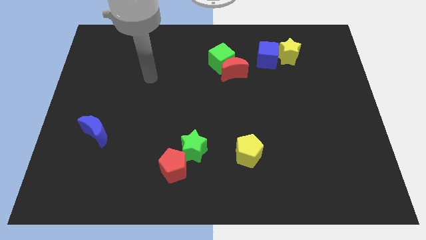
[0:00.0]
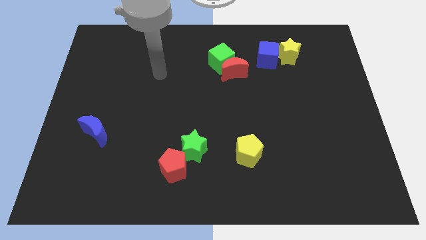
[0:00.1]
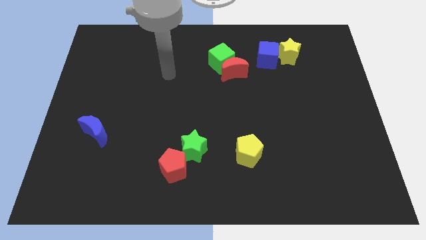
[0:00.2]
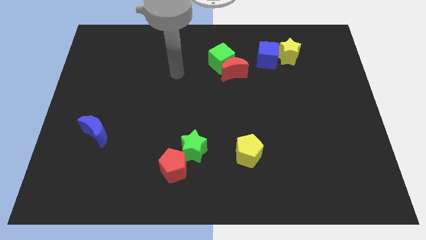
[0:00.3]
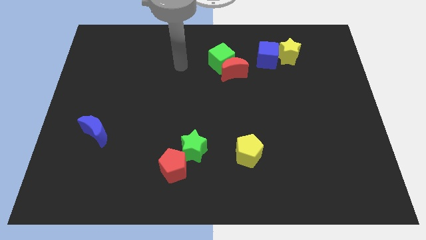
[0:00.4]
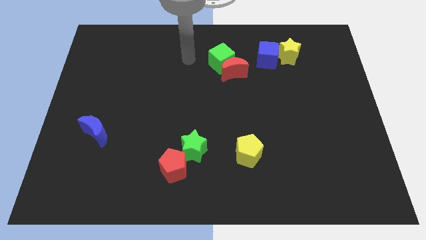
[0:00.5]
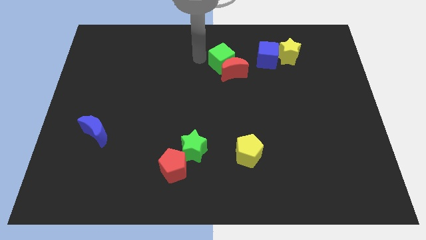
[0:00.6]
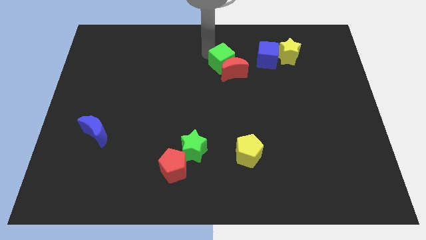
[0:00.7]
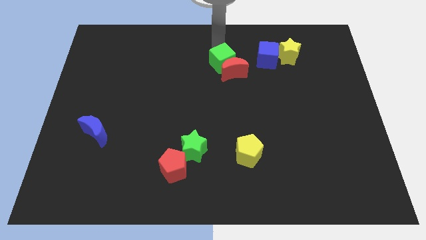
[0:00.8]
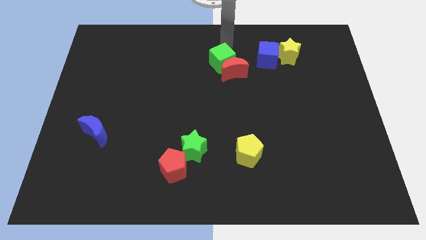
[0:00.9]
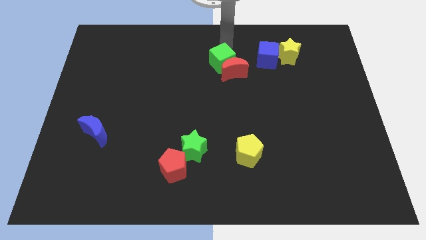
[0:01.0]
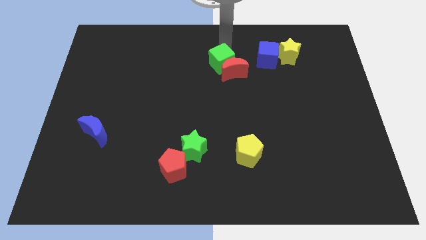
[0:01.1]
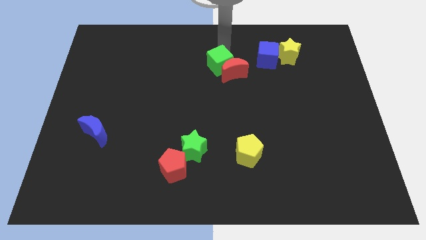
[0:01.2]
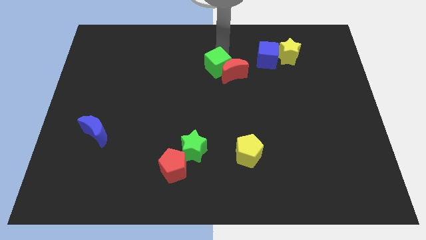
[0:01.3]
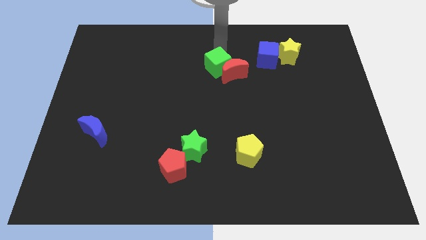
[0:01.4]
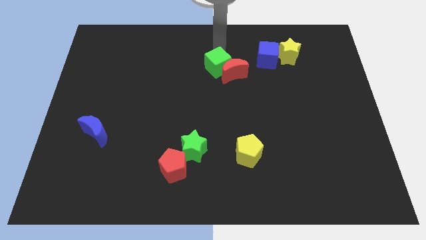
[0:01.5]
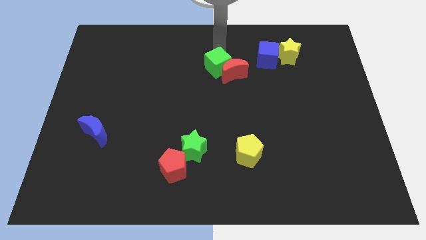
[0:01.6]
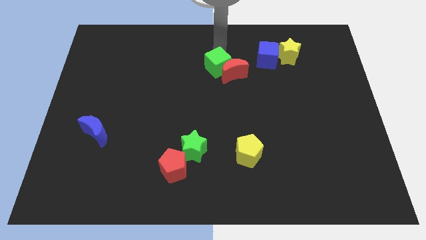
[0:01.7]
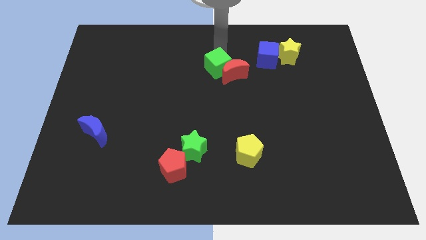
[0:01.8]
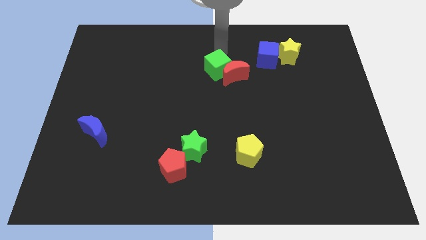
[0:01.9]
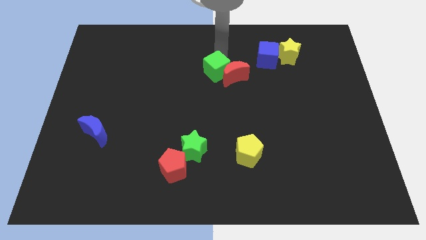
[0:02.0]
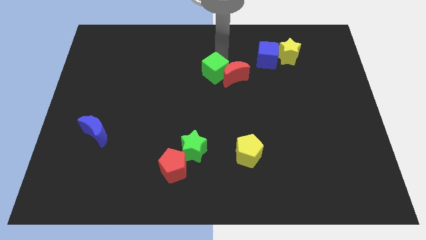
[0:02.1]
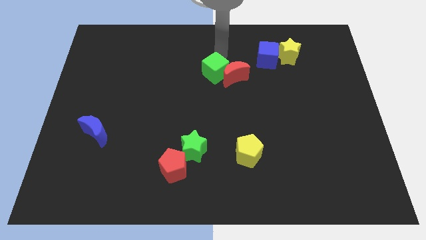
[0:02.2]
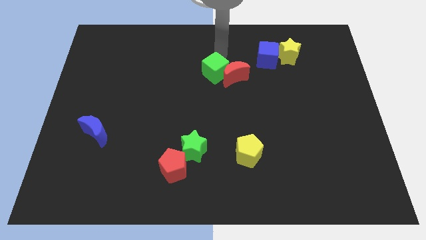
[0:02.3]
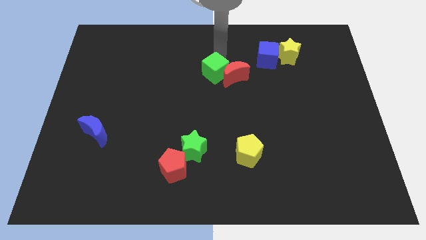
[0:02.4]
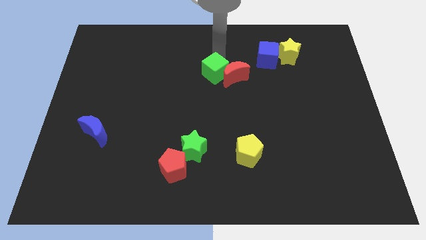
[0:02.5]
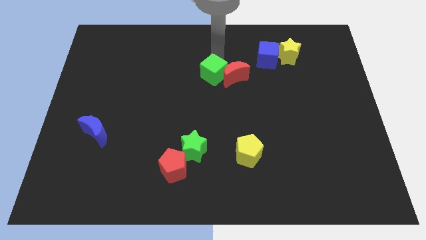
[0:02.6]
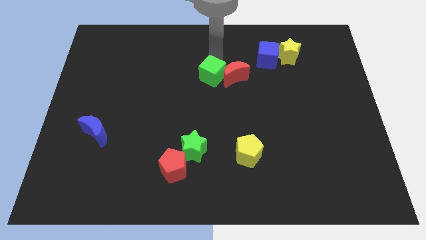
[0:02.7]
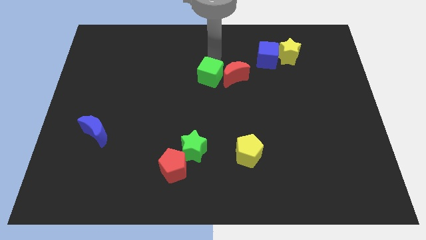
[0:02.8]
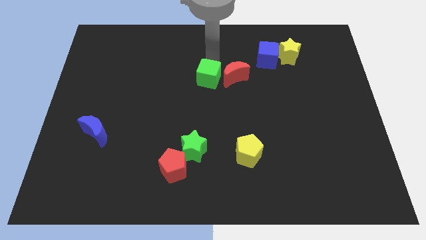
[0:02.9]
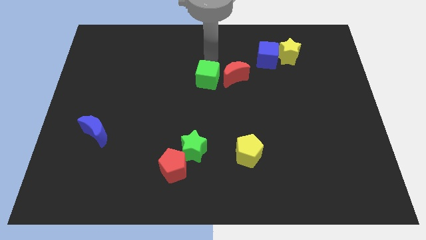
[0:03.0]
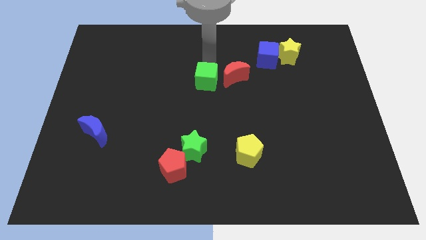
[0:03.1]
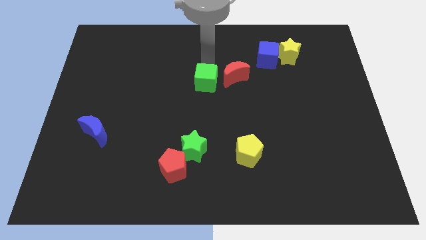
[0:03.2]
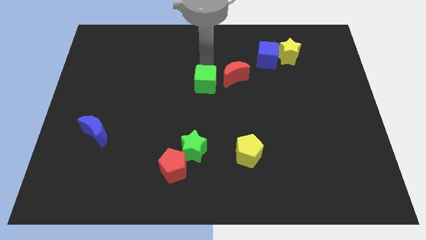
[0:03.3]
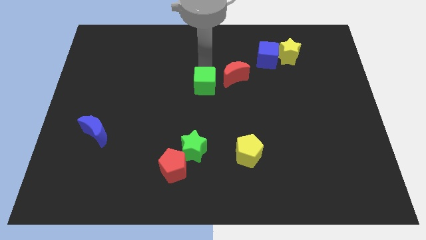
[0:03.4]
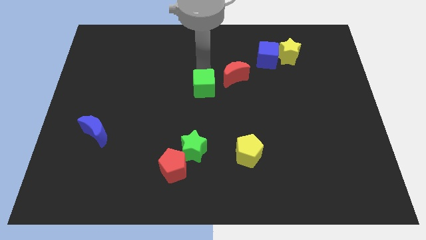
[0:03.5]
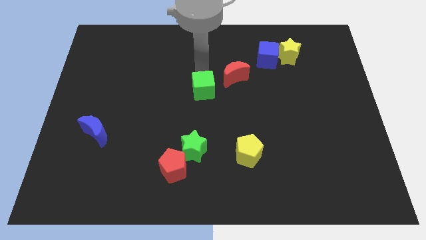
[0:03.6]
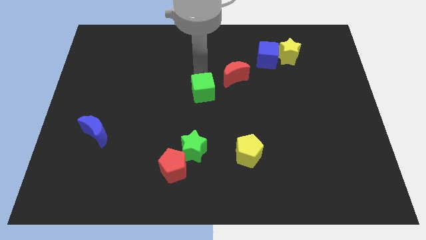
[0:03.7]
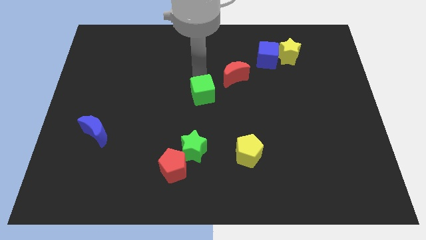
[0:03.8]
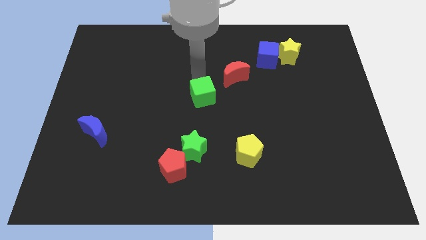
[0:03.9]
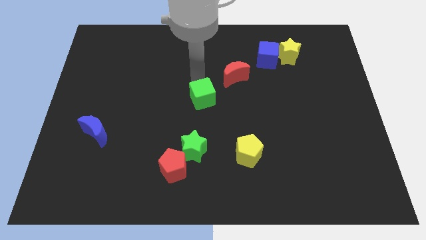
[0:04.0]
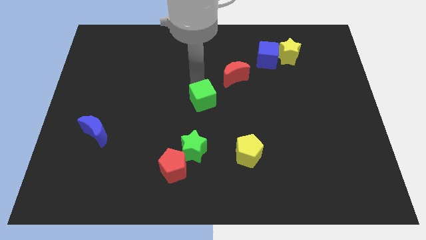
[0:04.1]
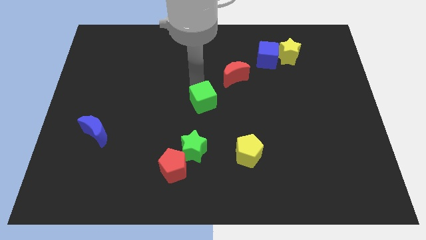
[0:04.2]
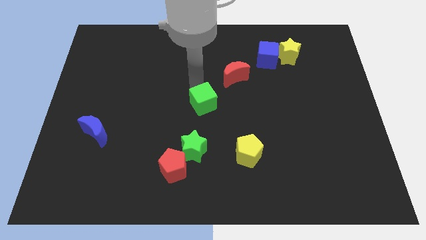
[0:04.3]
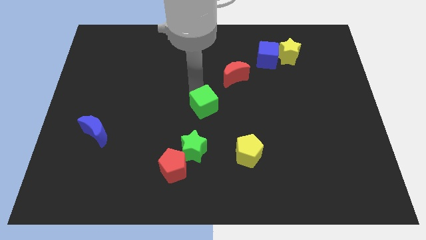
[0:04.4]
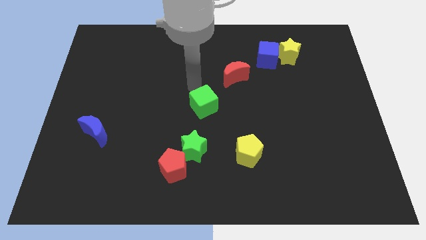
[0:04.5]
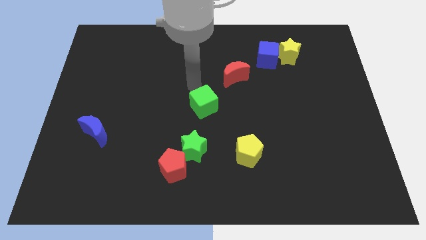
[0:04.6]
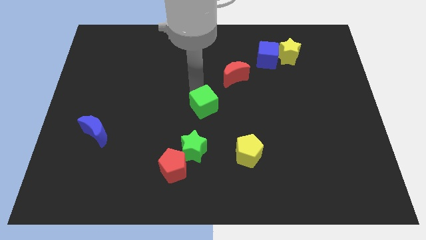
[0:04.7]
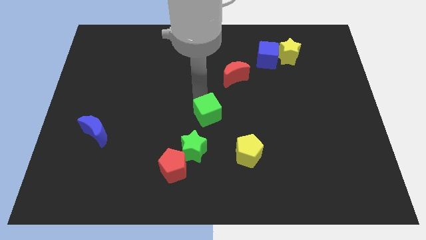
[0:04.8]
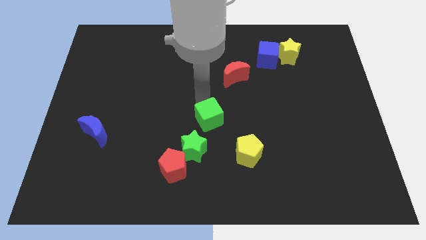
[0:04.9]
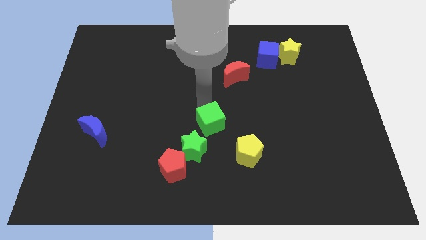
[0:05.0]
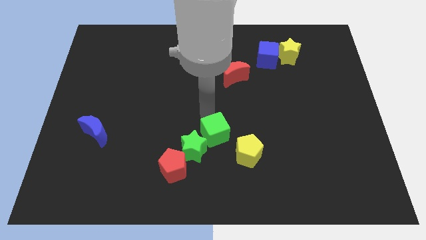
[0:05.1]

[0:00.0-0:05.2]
slide the green cube down

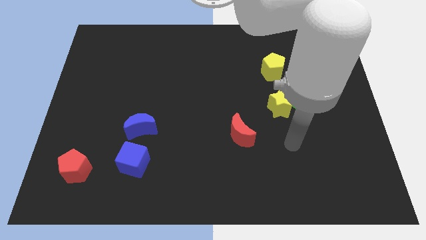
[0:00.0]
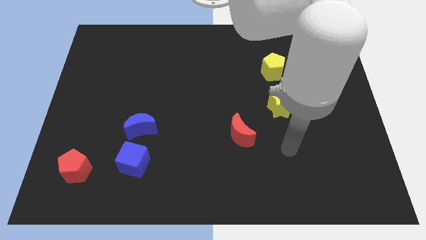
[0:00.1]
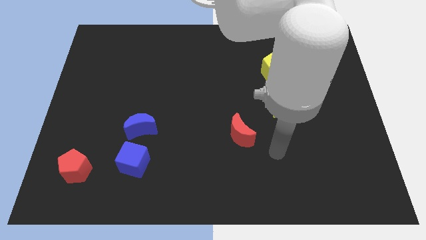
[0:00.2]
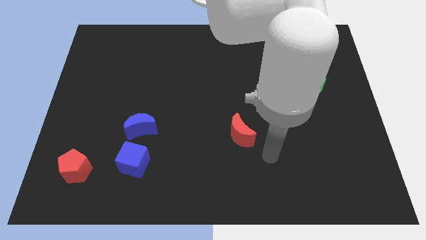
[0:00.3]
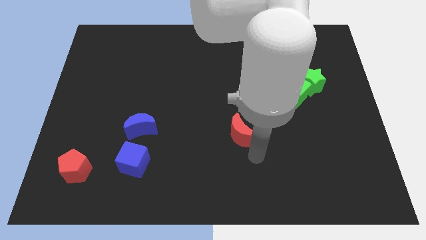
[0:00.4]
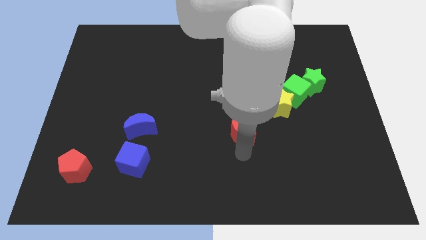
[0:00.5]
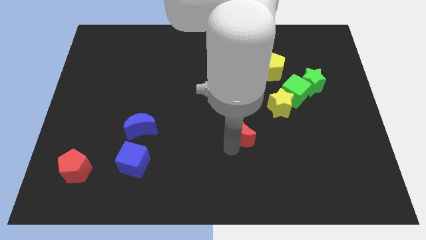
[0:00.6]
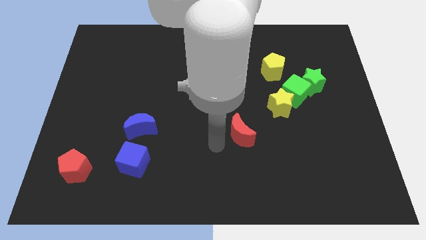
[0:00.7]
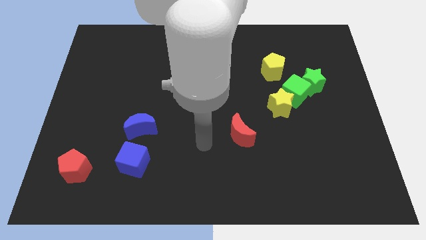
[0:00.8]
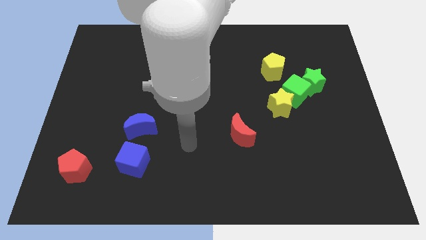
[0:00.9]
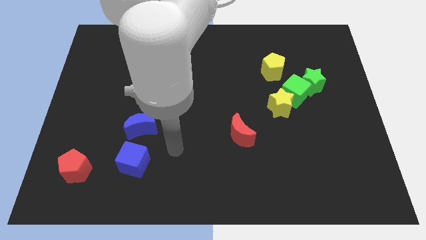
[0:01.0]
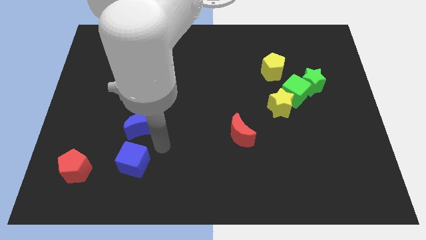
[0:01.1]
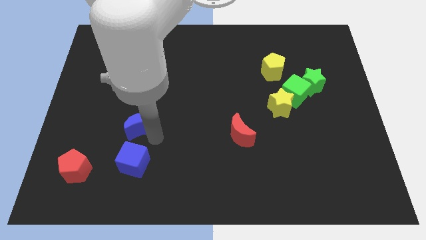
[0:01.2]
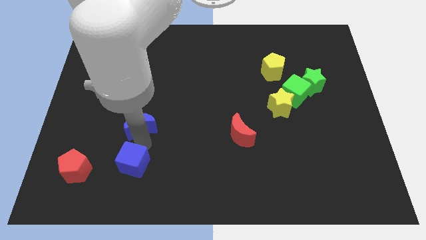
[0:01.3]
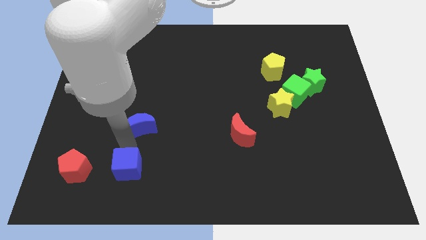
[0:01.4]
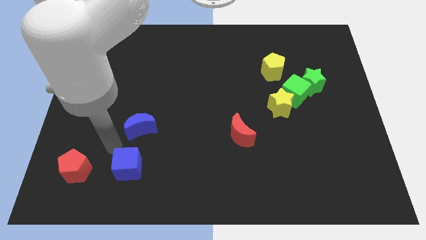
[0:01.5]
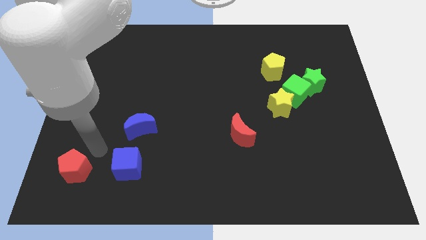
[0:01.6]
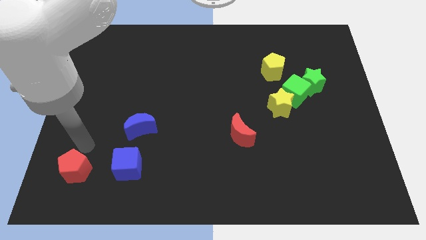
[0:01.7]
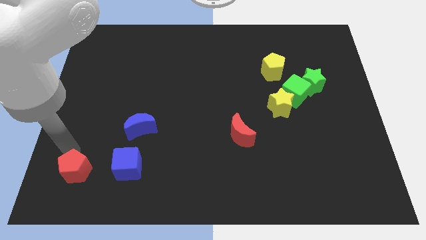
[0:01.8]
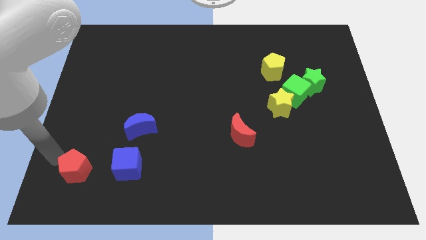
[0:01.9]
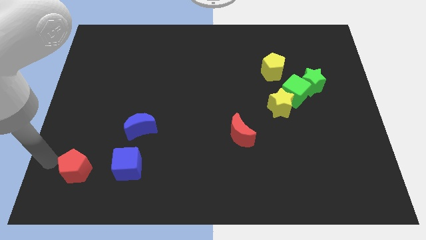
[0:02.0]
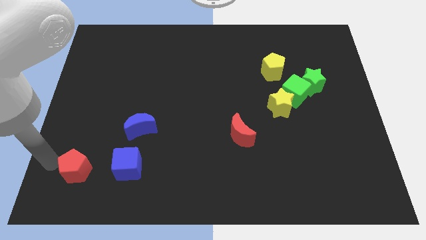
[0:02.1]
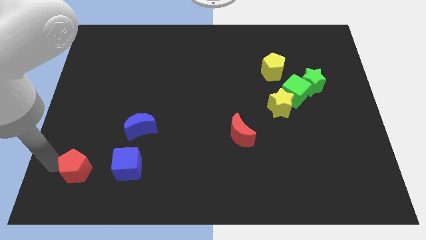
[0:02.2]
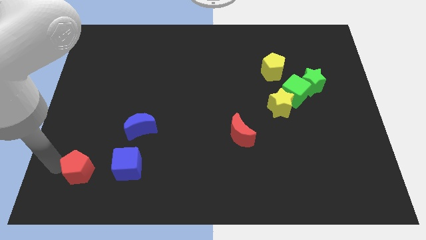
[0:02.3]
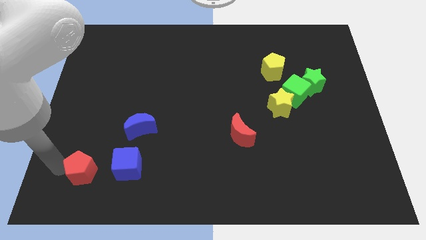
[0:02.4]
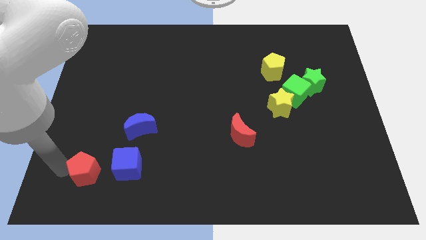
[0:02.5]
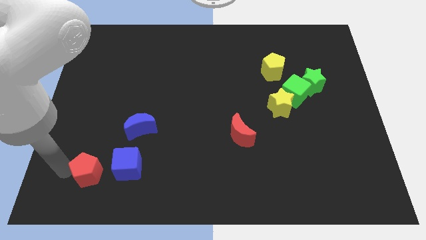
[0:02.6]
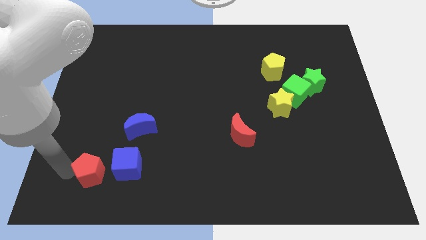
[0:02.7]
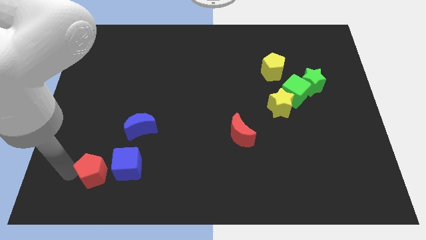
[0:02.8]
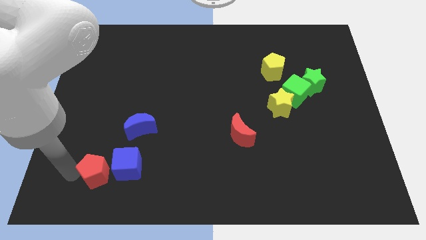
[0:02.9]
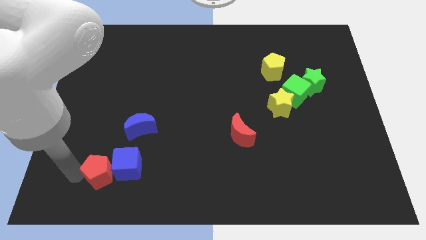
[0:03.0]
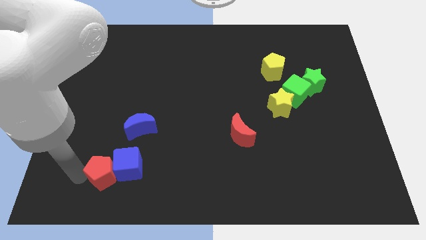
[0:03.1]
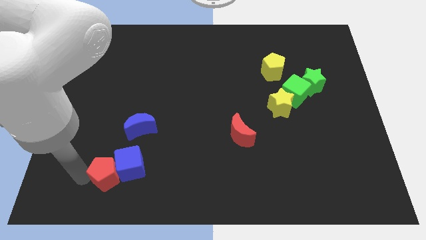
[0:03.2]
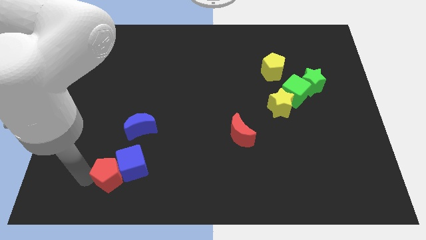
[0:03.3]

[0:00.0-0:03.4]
push the red pentagon to the right a little
